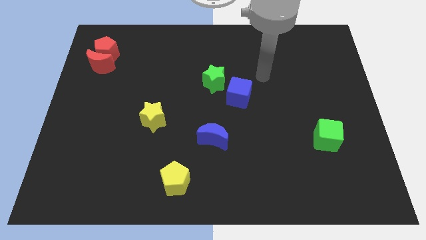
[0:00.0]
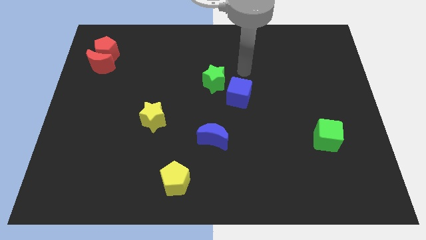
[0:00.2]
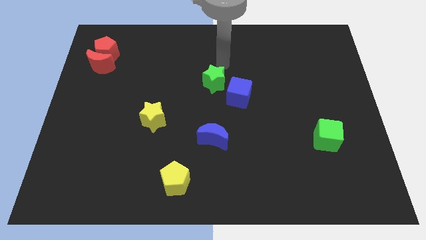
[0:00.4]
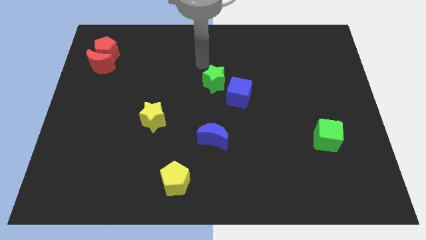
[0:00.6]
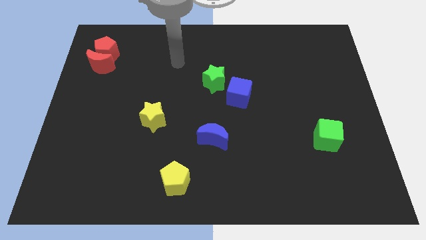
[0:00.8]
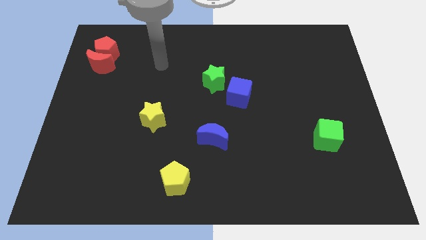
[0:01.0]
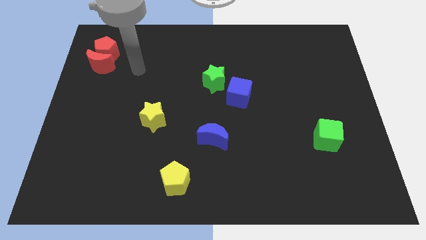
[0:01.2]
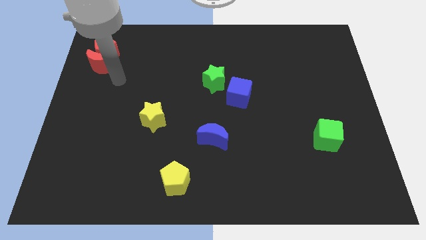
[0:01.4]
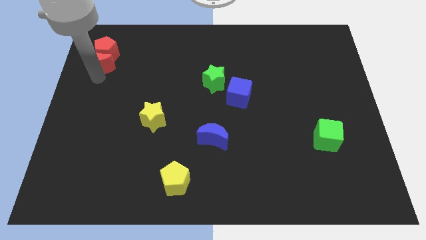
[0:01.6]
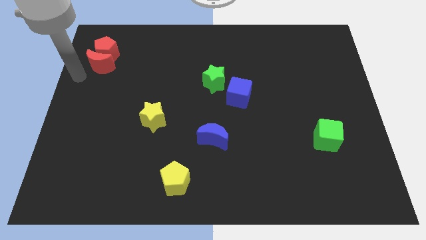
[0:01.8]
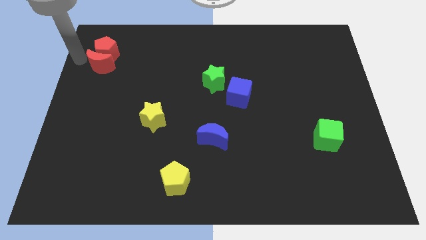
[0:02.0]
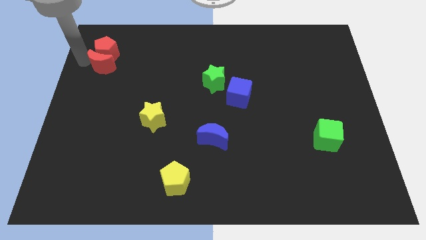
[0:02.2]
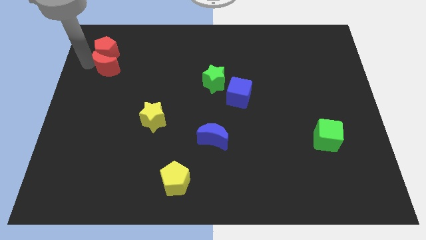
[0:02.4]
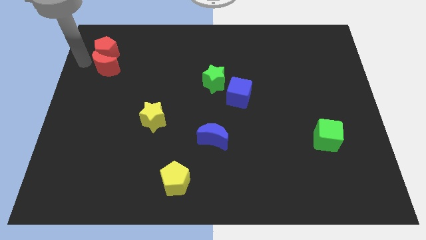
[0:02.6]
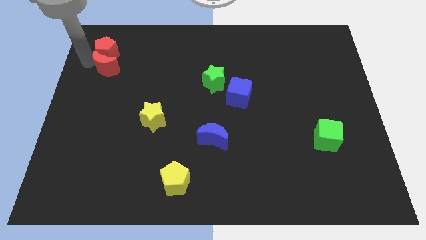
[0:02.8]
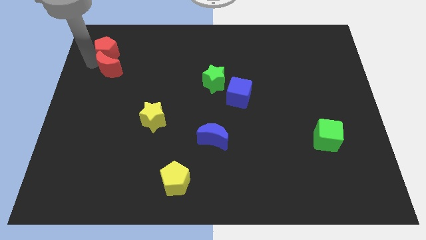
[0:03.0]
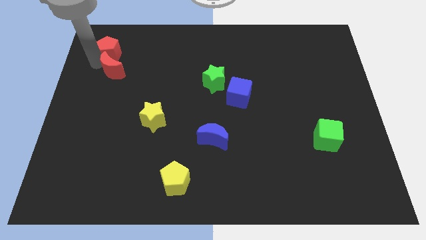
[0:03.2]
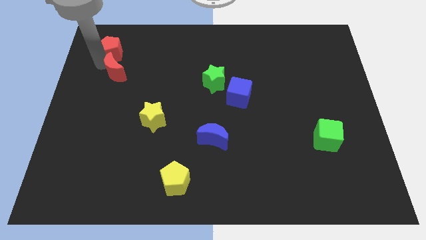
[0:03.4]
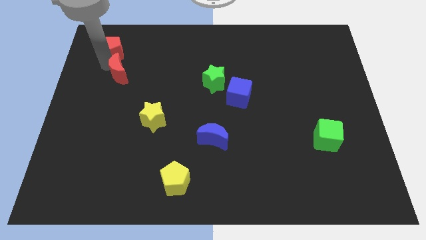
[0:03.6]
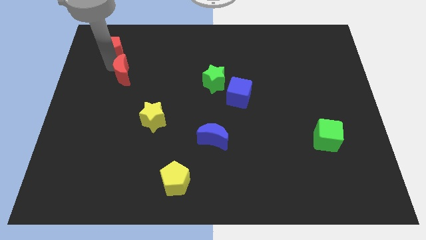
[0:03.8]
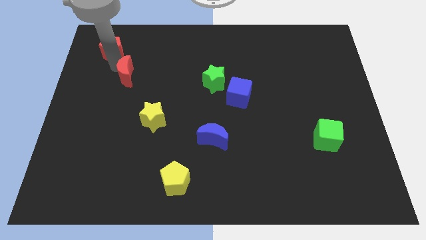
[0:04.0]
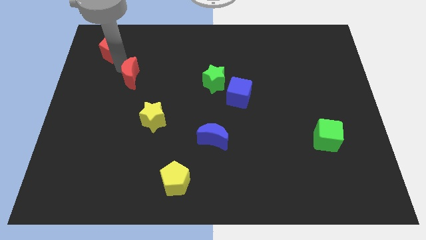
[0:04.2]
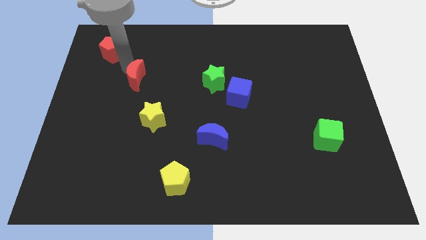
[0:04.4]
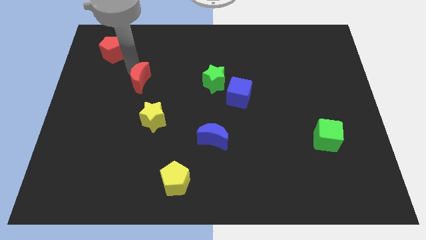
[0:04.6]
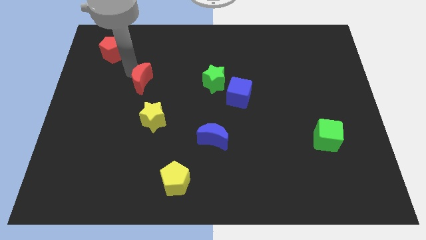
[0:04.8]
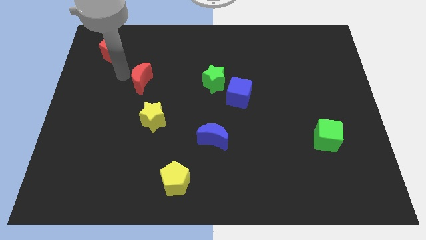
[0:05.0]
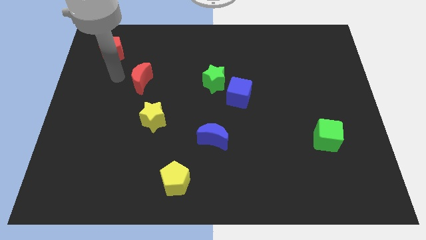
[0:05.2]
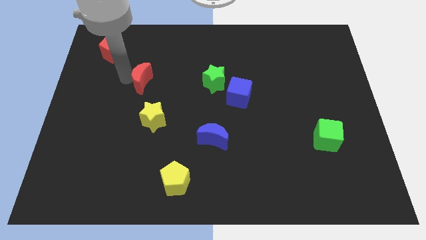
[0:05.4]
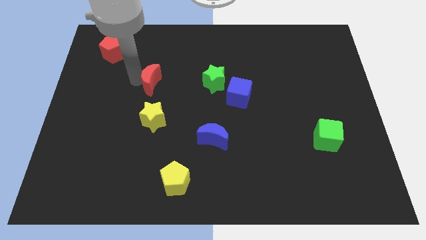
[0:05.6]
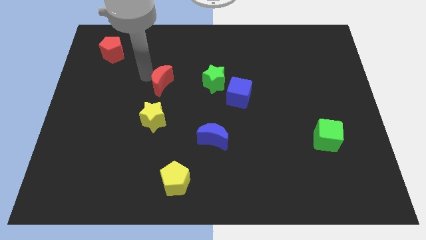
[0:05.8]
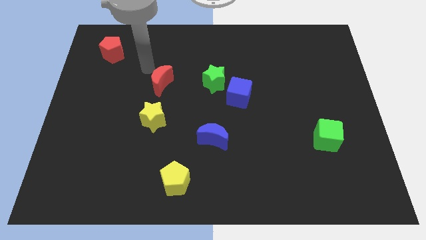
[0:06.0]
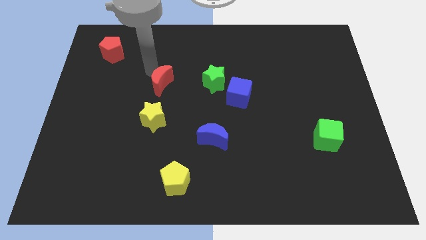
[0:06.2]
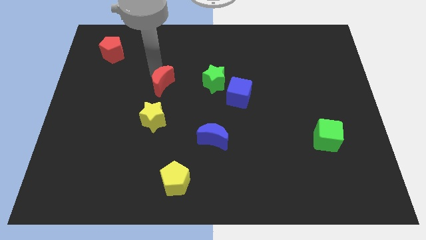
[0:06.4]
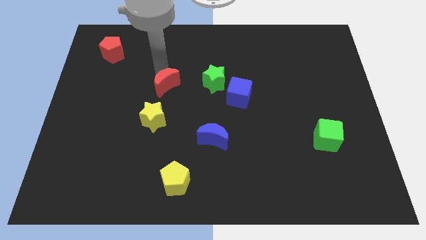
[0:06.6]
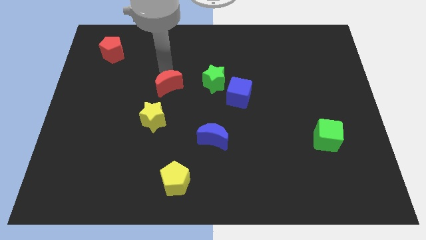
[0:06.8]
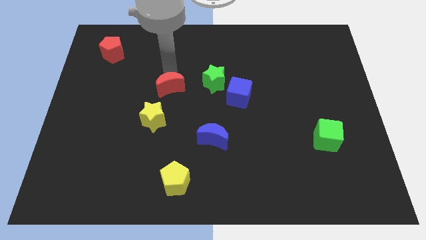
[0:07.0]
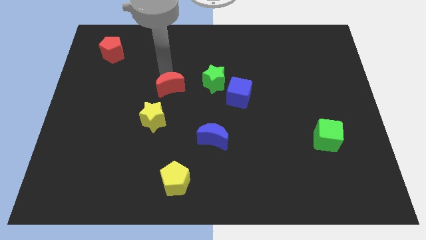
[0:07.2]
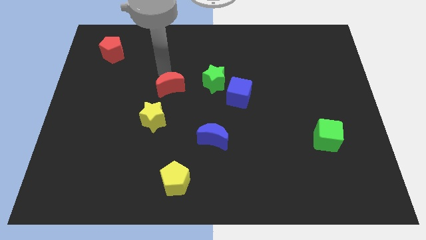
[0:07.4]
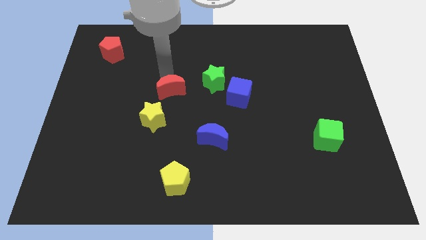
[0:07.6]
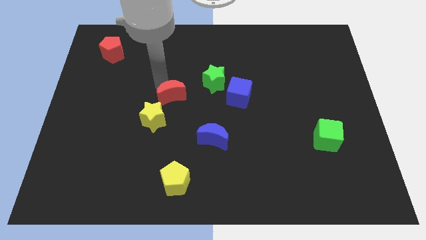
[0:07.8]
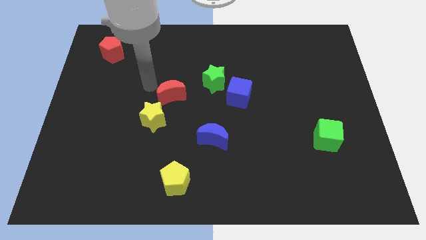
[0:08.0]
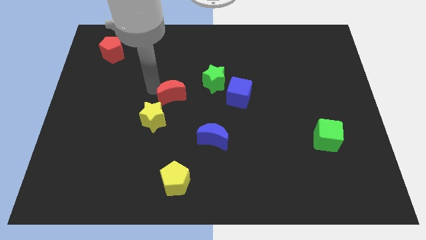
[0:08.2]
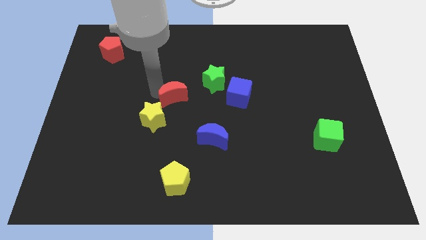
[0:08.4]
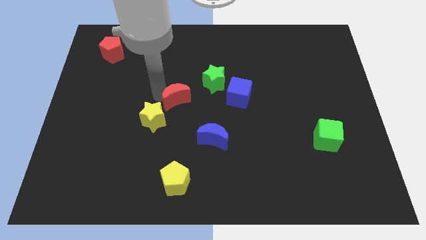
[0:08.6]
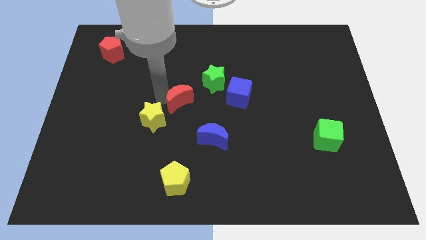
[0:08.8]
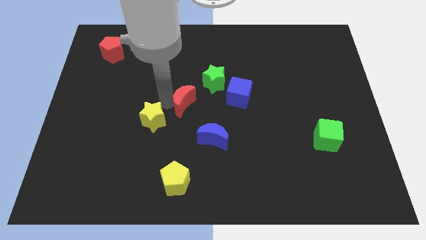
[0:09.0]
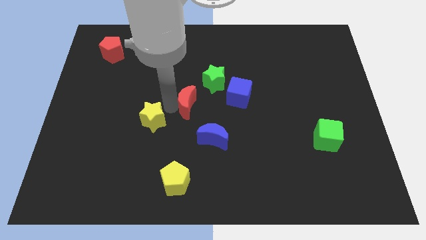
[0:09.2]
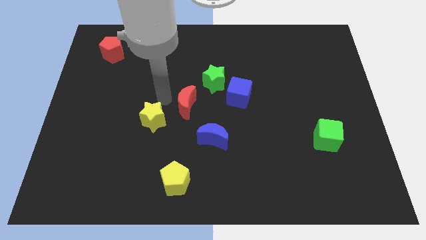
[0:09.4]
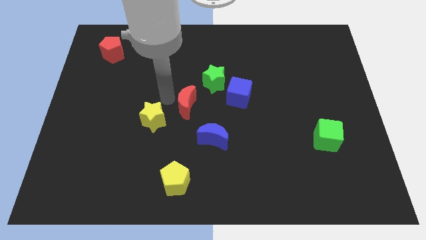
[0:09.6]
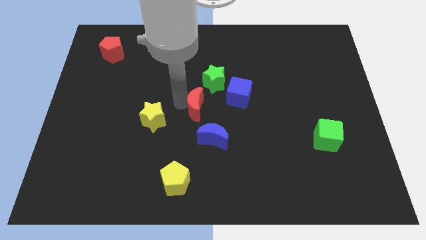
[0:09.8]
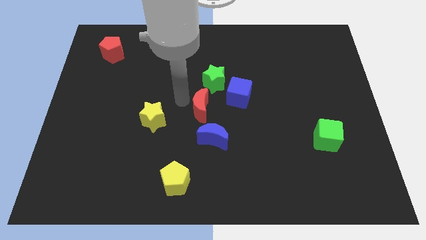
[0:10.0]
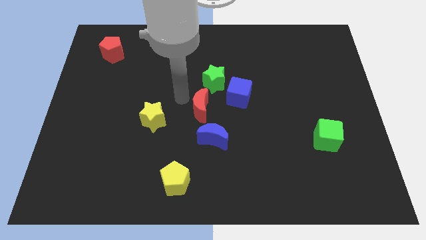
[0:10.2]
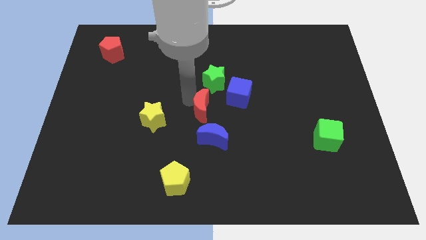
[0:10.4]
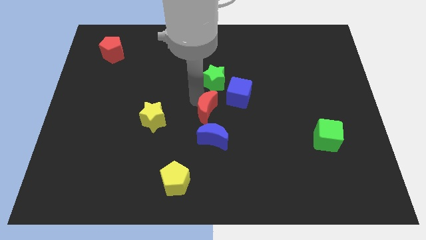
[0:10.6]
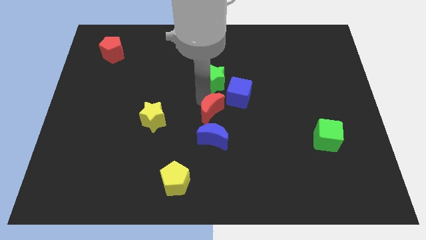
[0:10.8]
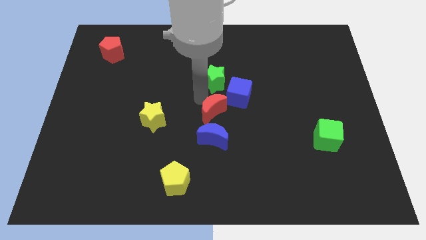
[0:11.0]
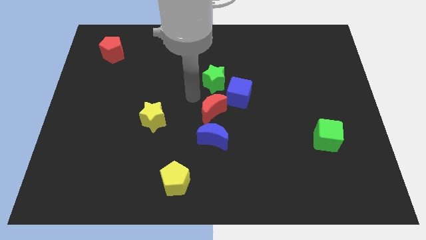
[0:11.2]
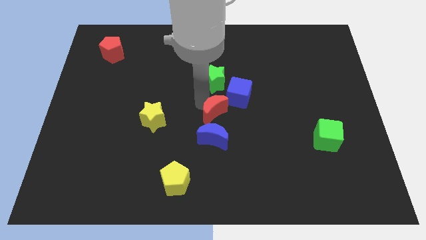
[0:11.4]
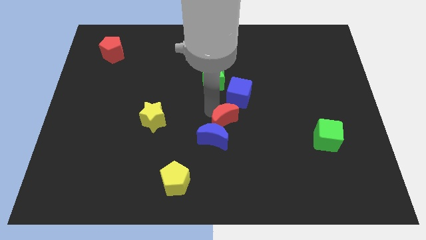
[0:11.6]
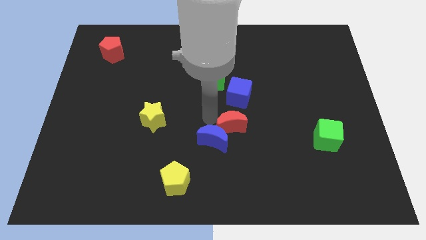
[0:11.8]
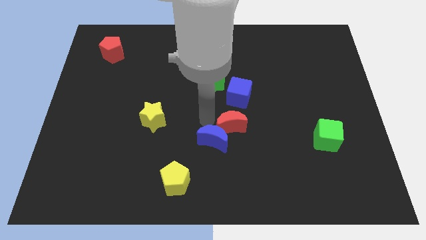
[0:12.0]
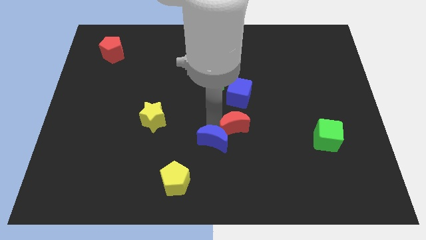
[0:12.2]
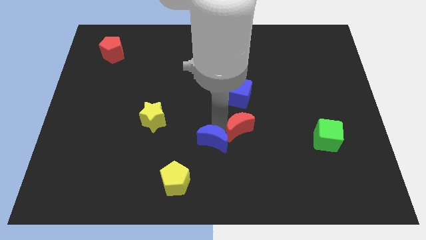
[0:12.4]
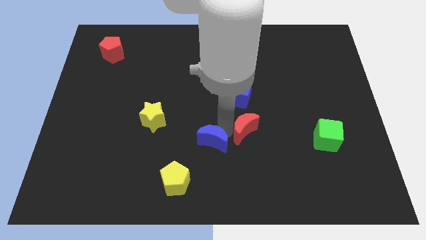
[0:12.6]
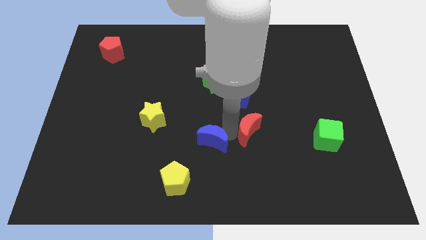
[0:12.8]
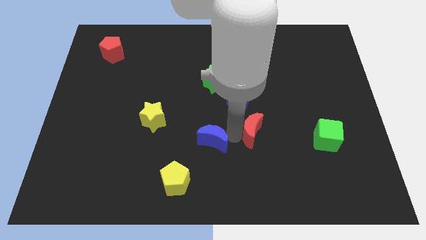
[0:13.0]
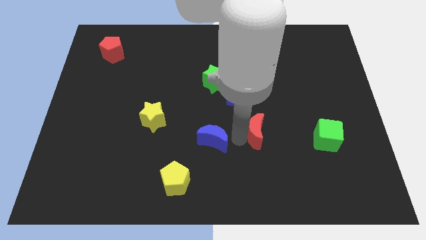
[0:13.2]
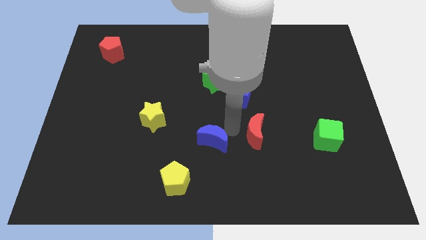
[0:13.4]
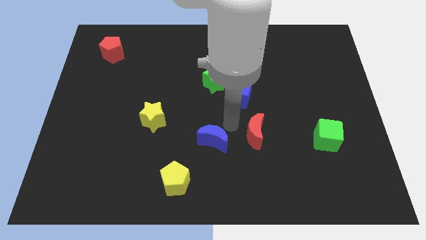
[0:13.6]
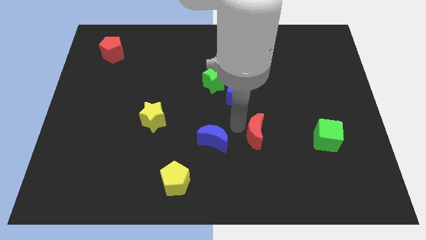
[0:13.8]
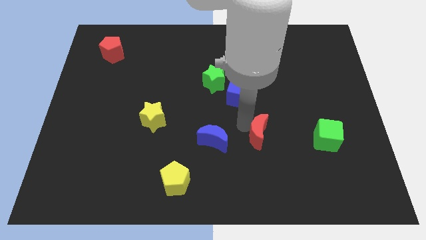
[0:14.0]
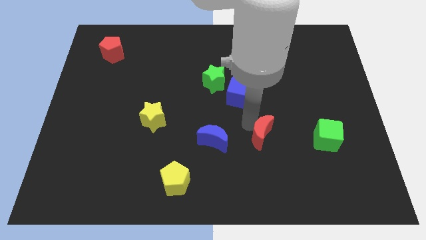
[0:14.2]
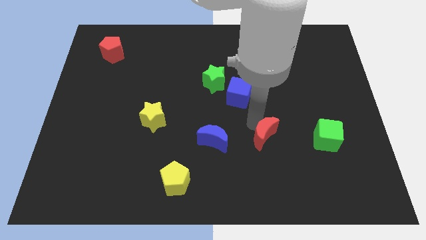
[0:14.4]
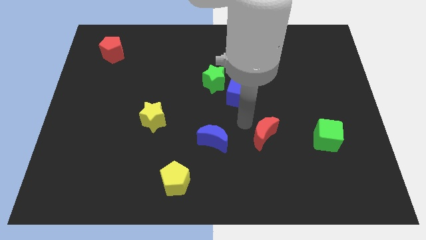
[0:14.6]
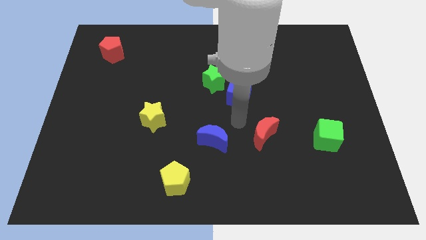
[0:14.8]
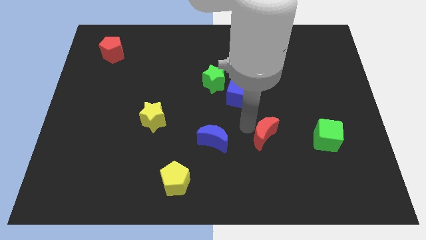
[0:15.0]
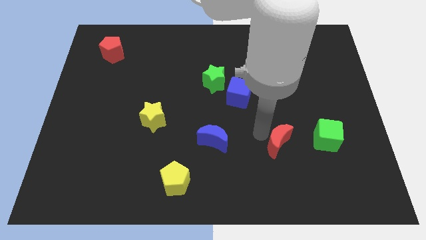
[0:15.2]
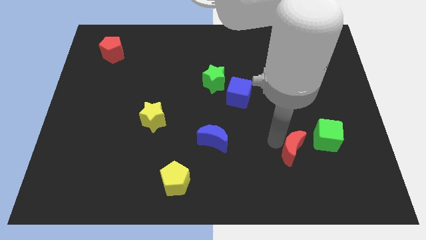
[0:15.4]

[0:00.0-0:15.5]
move the red moon to the bottom left of the green cube
